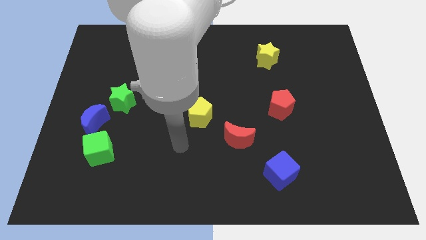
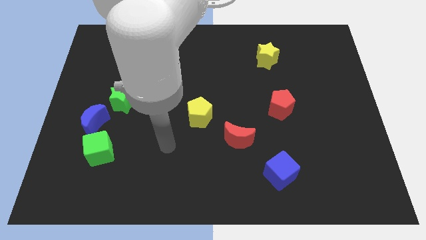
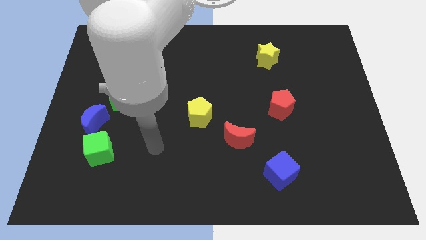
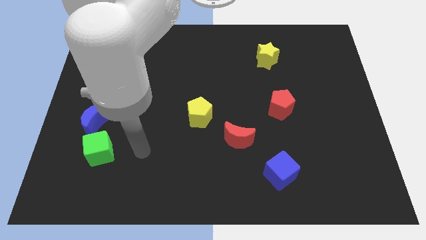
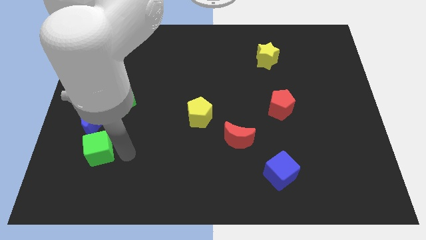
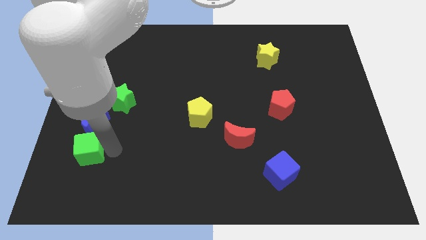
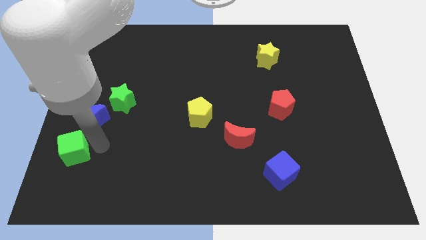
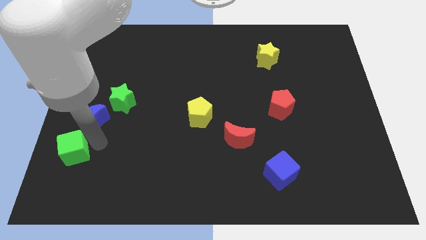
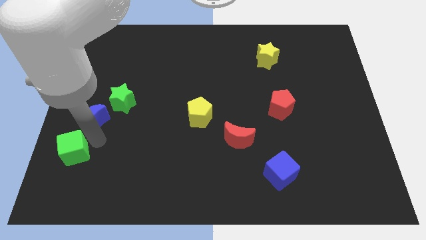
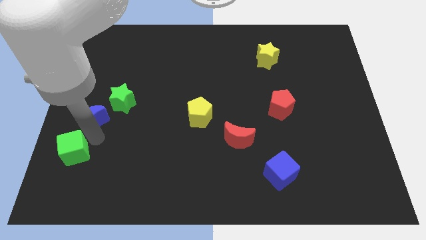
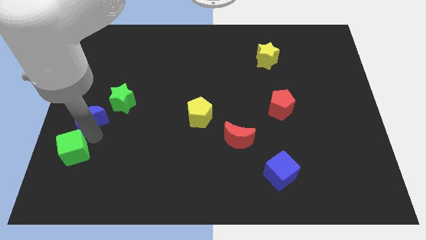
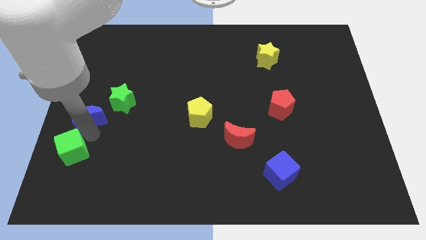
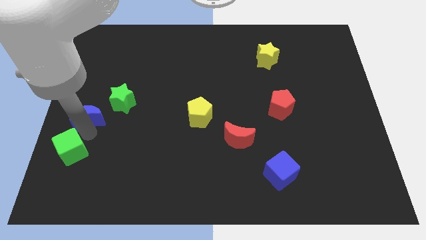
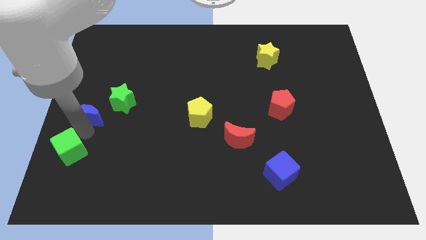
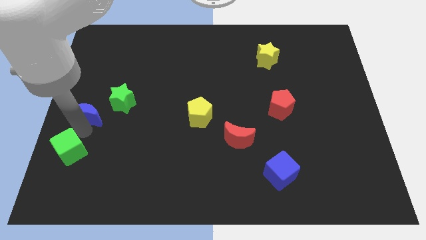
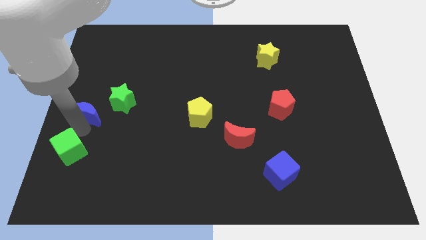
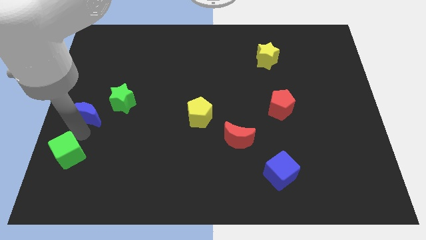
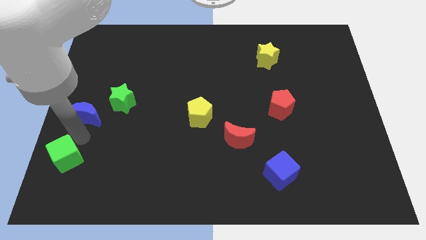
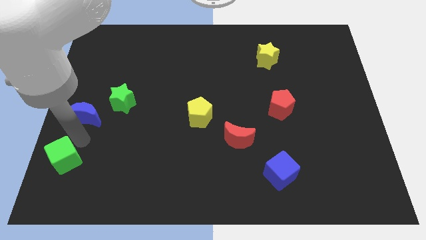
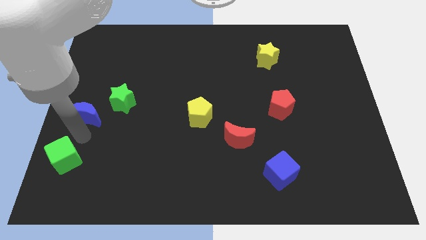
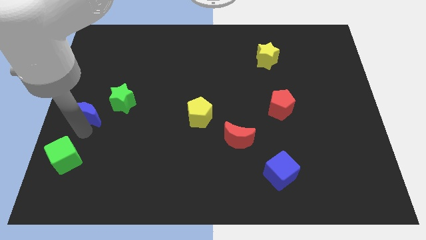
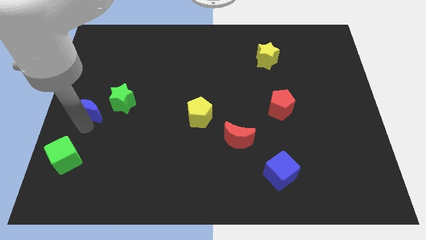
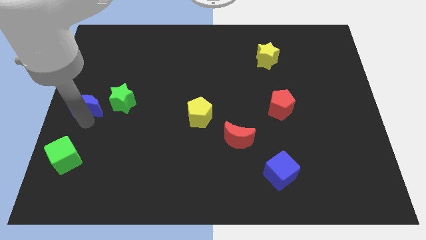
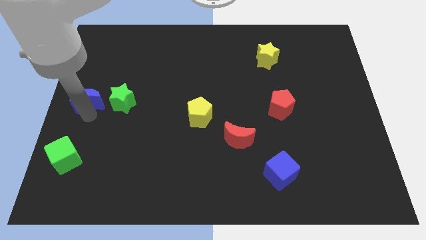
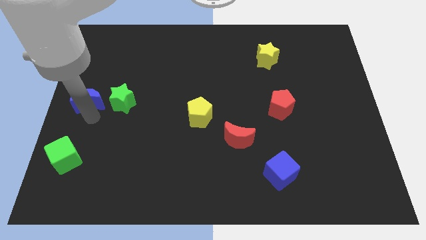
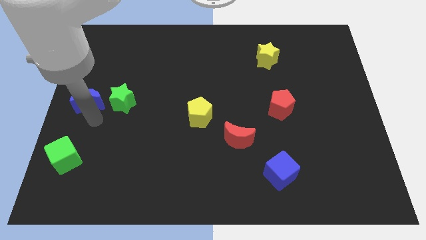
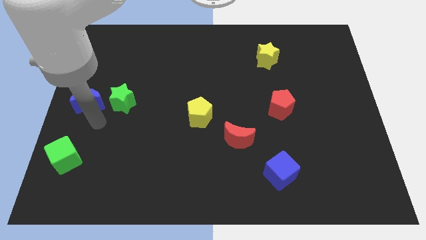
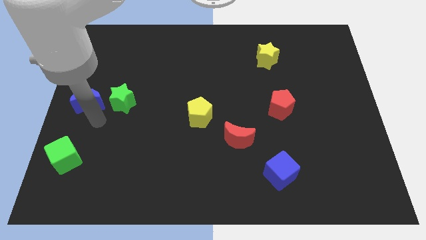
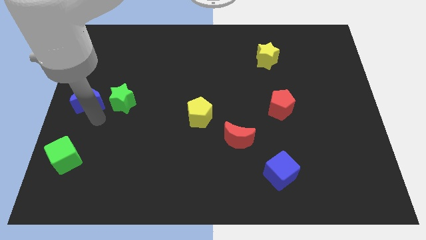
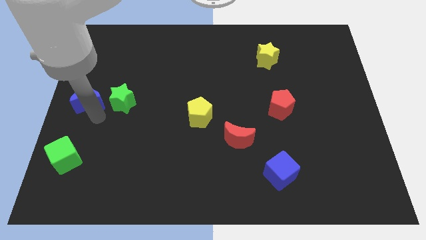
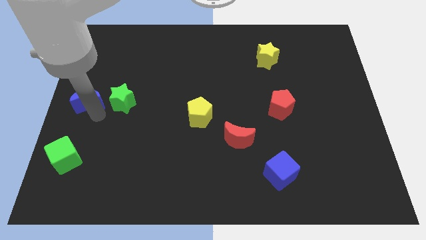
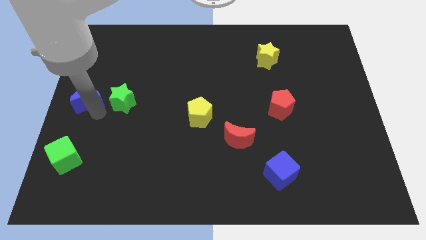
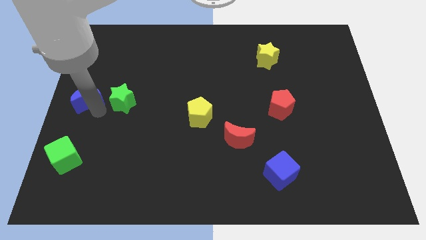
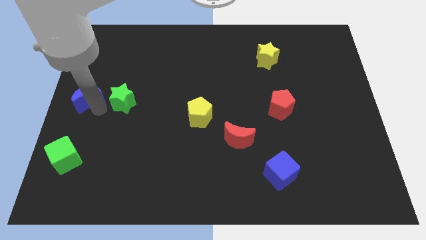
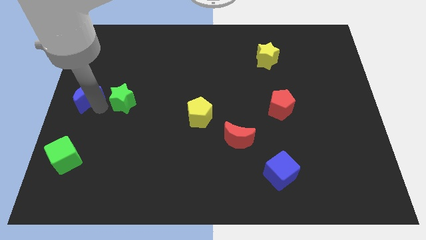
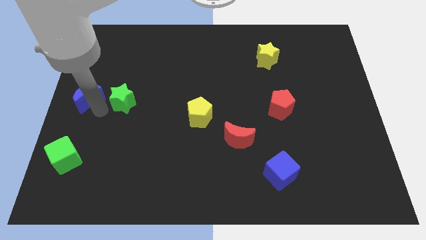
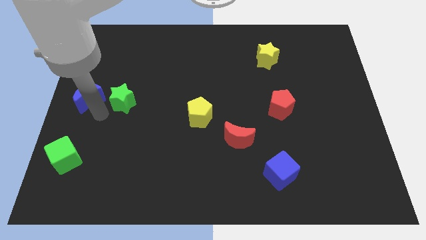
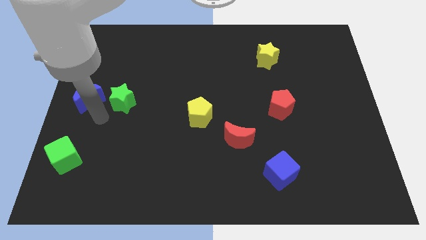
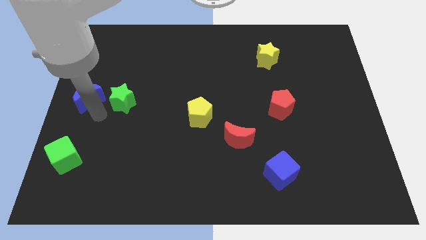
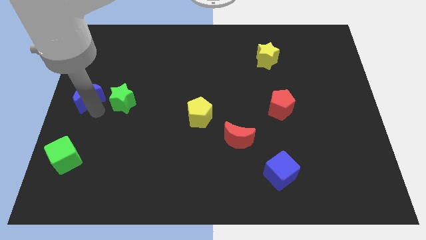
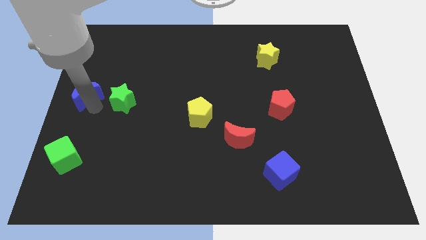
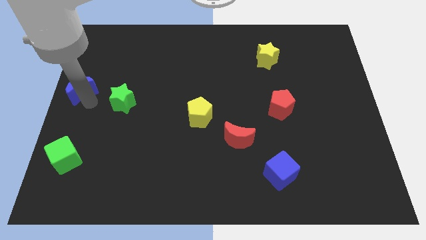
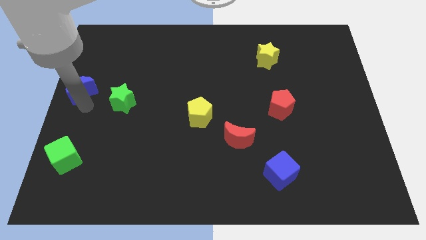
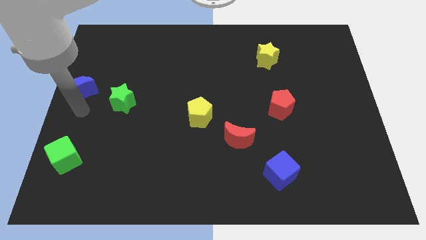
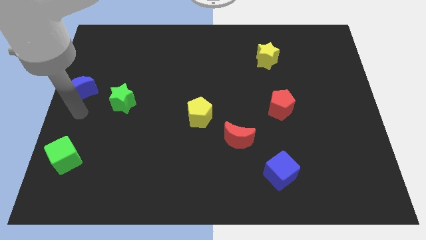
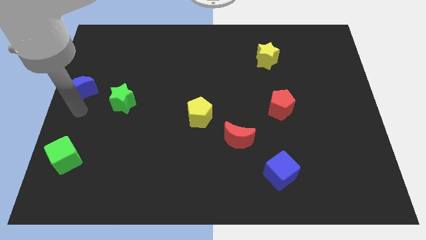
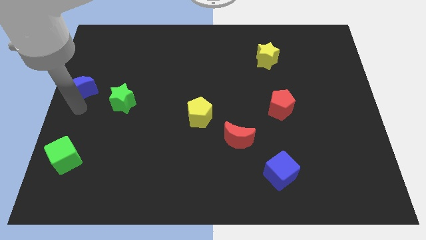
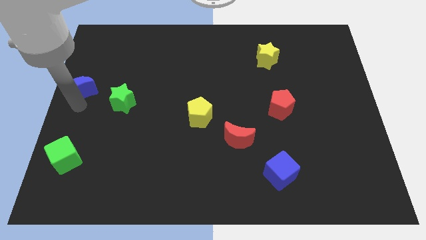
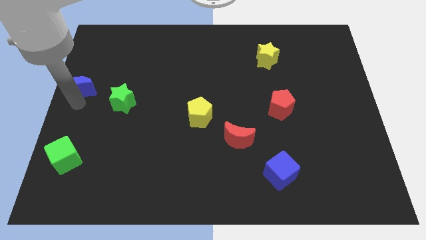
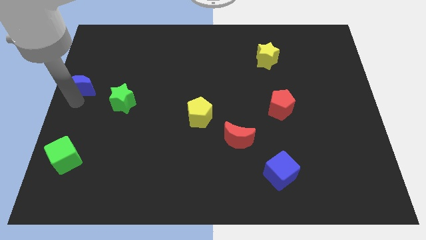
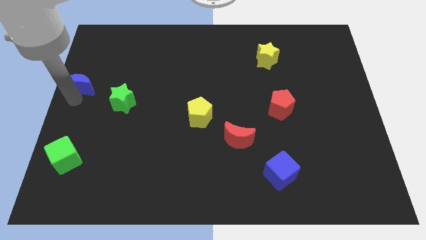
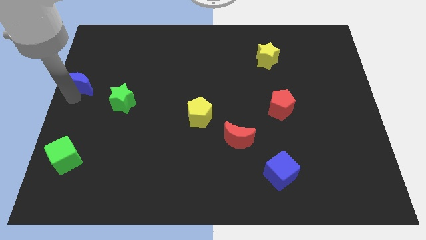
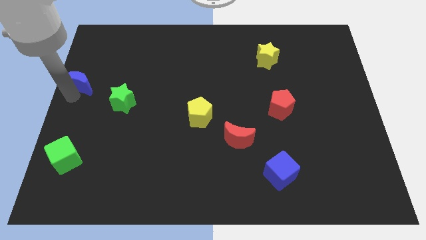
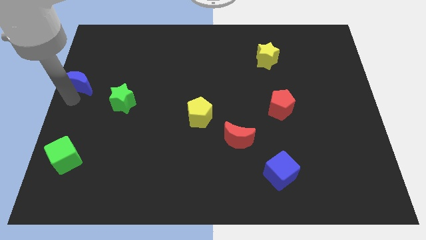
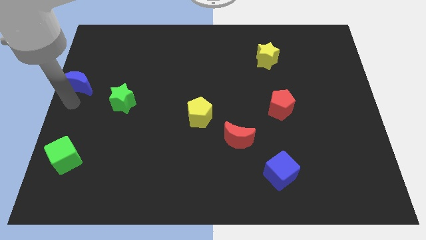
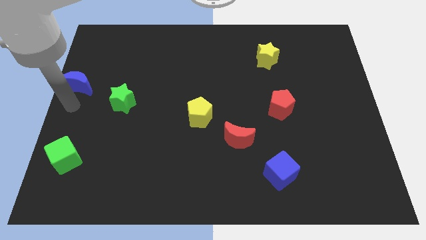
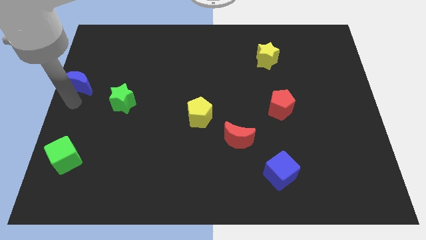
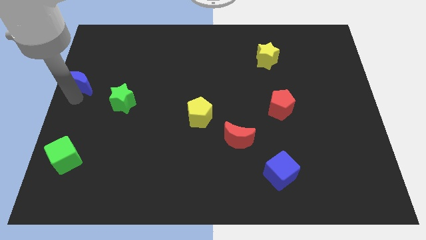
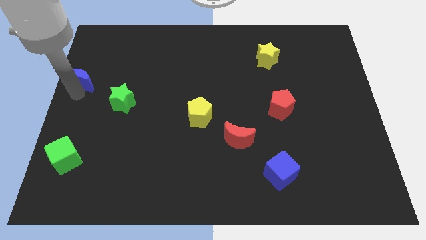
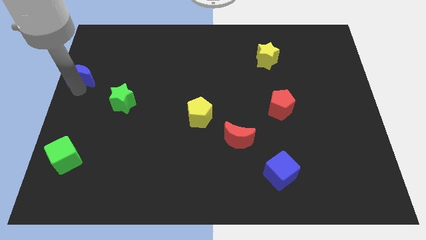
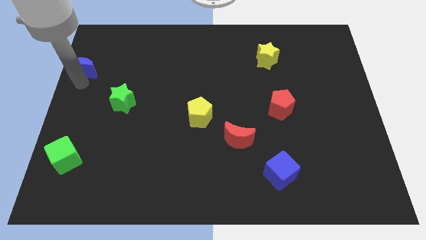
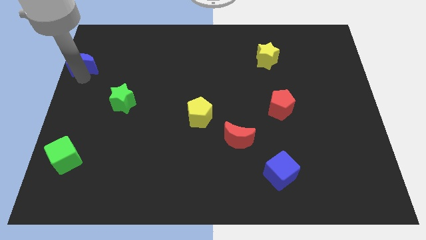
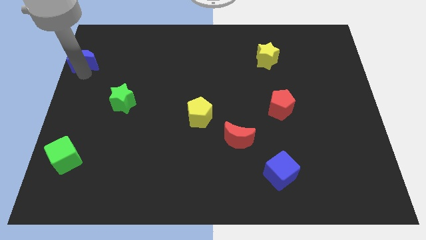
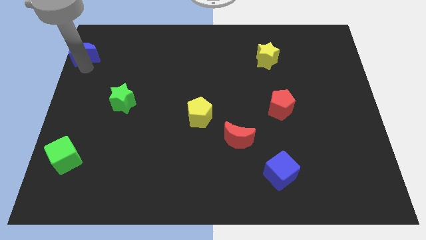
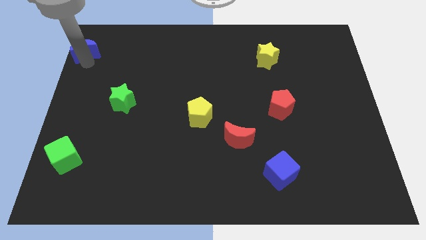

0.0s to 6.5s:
push the blue moon to the top left of the board
